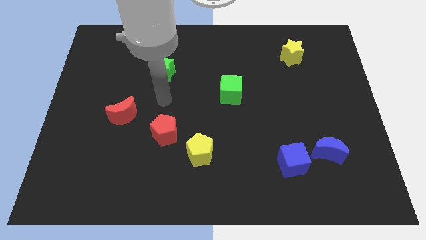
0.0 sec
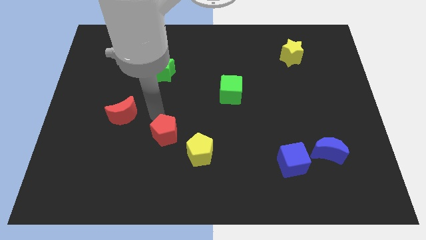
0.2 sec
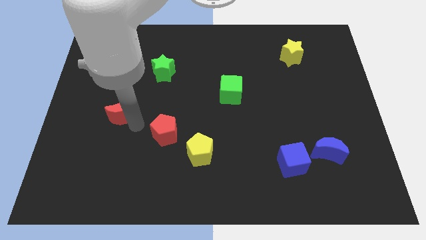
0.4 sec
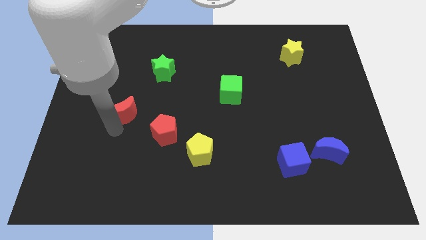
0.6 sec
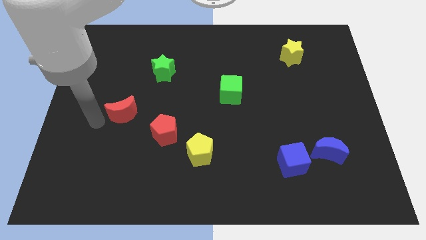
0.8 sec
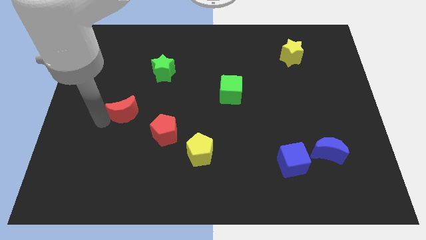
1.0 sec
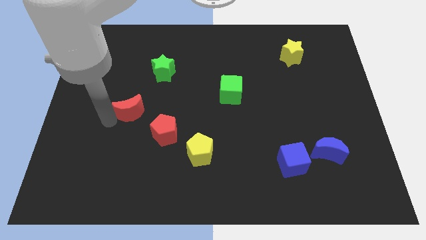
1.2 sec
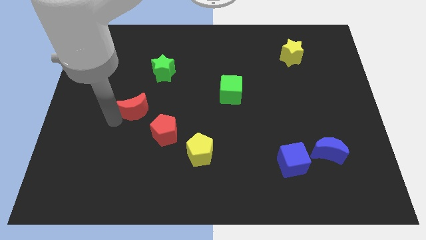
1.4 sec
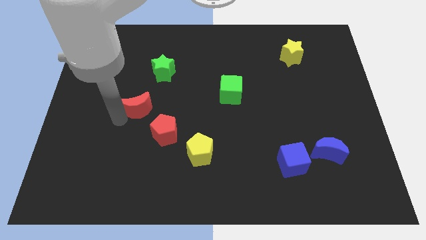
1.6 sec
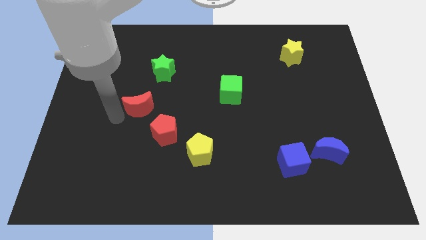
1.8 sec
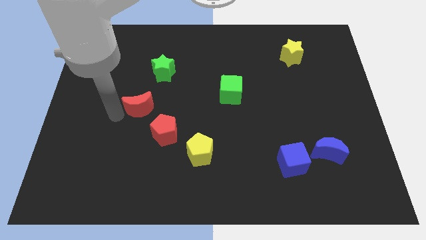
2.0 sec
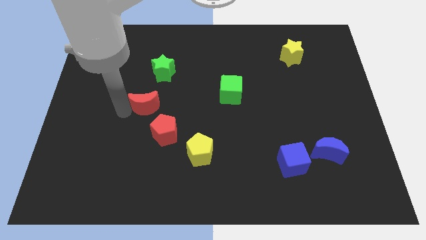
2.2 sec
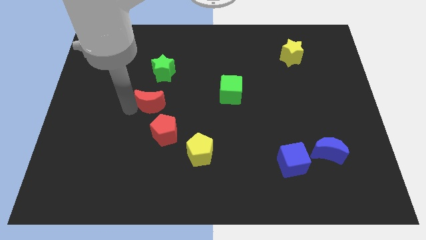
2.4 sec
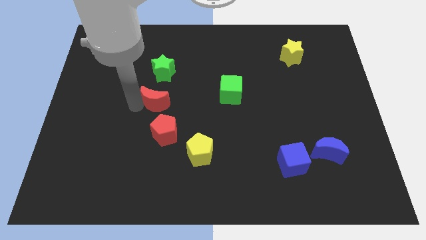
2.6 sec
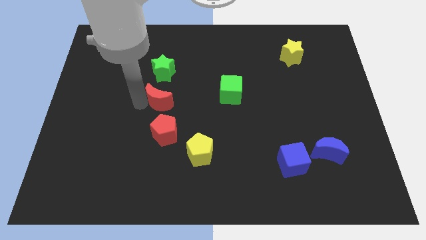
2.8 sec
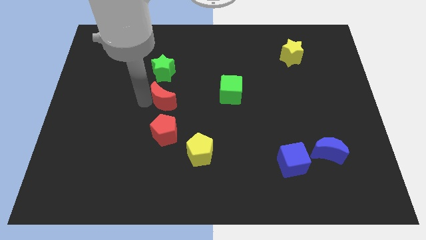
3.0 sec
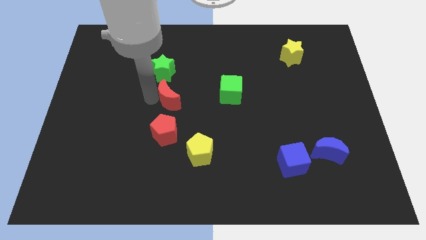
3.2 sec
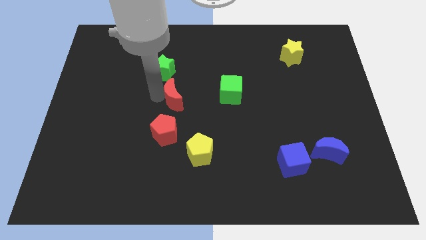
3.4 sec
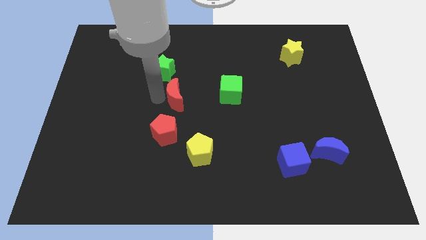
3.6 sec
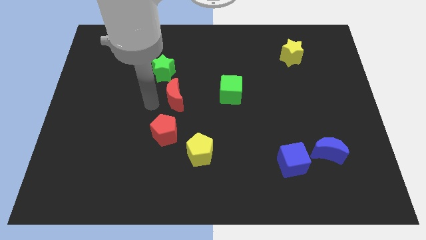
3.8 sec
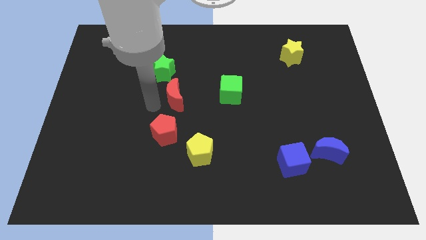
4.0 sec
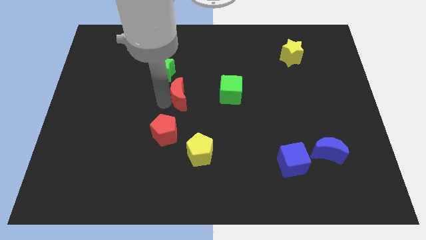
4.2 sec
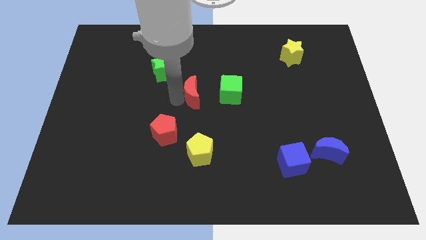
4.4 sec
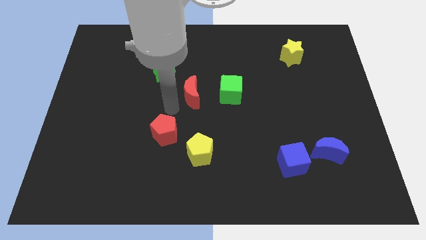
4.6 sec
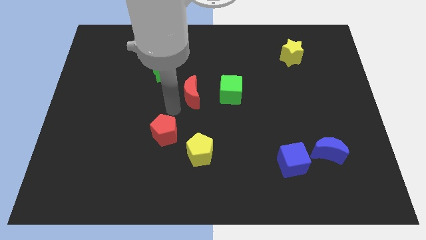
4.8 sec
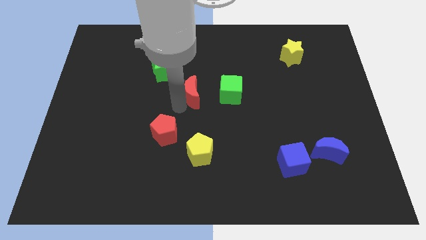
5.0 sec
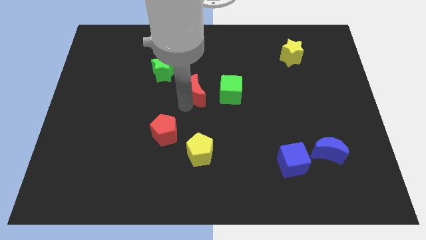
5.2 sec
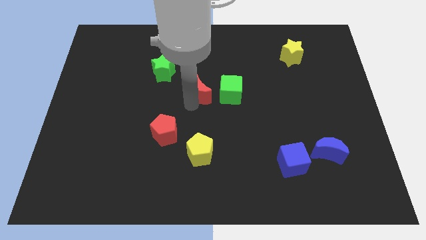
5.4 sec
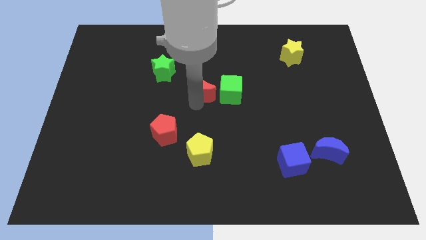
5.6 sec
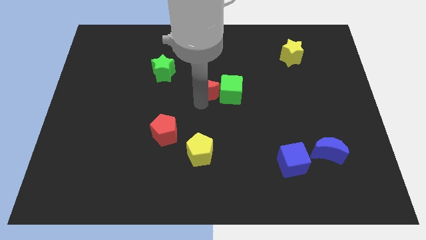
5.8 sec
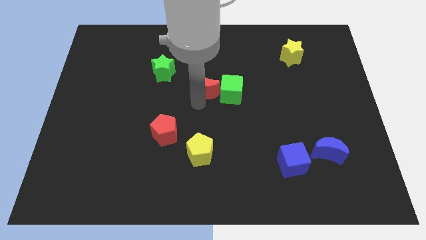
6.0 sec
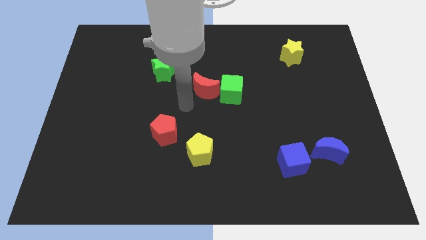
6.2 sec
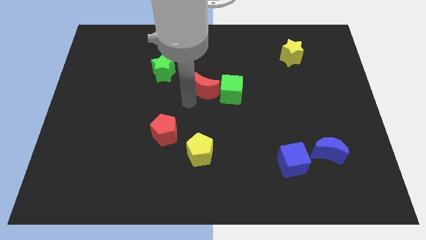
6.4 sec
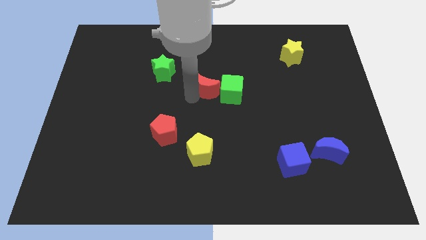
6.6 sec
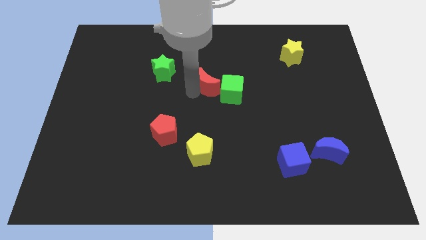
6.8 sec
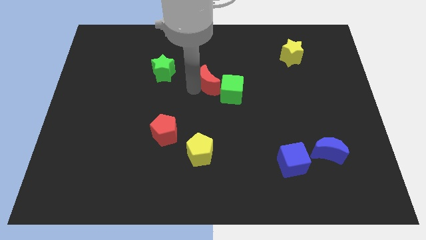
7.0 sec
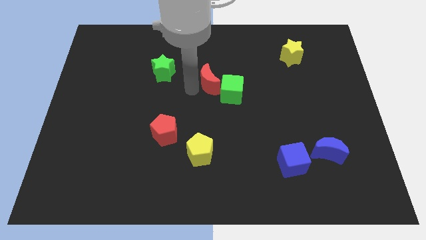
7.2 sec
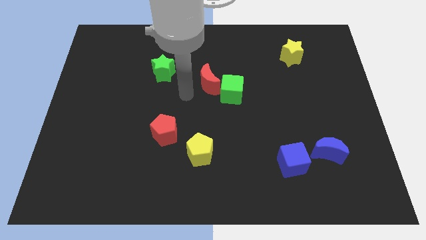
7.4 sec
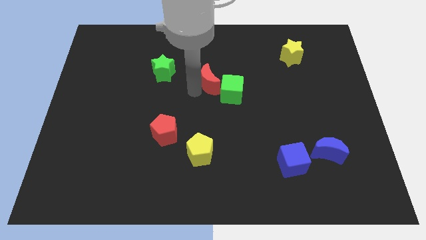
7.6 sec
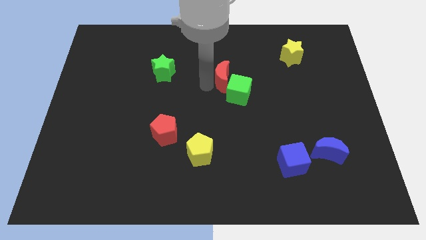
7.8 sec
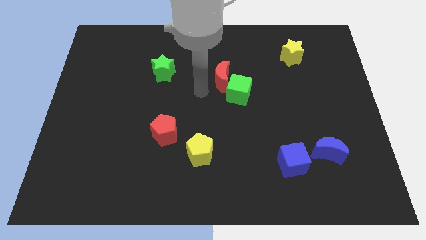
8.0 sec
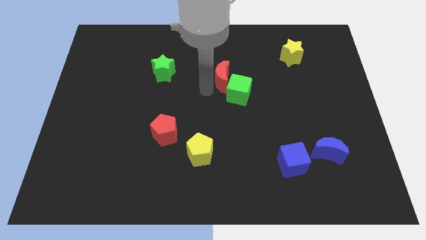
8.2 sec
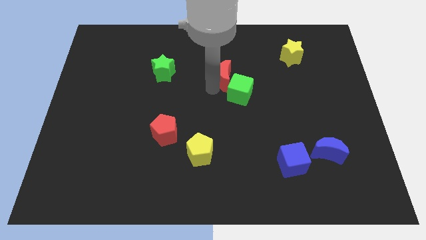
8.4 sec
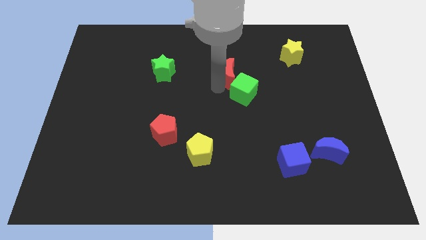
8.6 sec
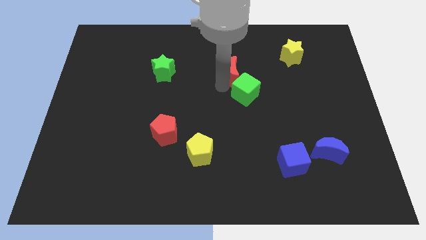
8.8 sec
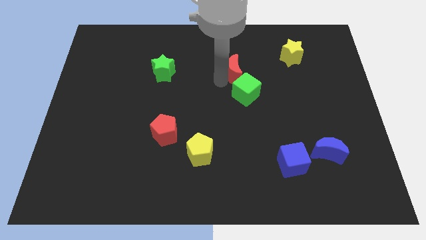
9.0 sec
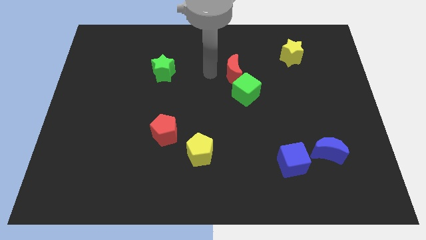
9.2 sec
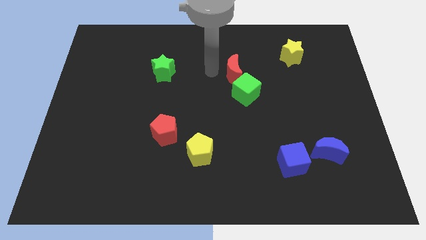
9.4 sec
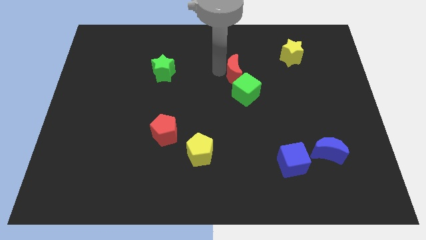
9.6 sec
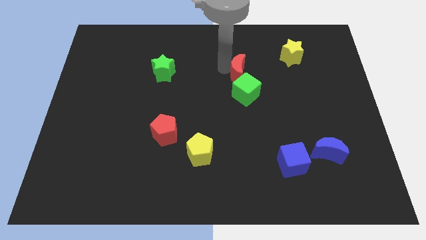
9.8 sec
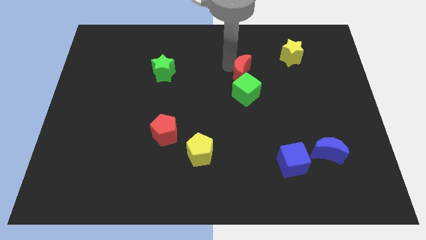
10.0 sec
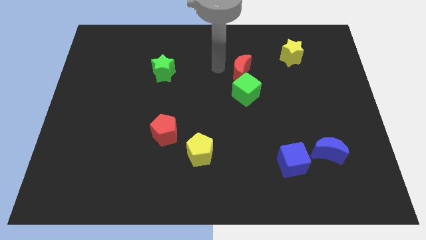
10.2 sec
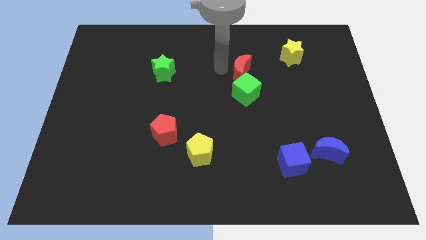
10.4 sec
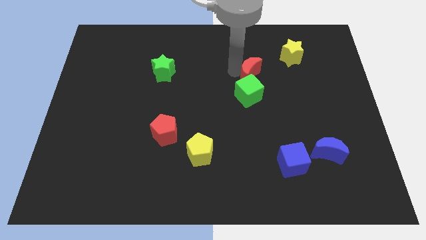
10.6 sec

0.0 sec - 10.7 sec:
put the red moon to the top right side of the green cube

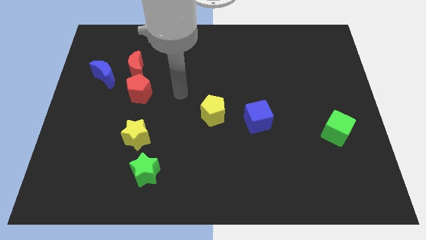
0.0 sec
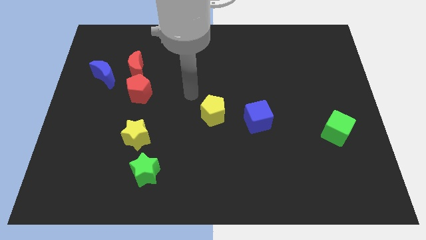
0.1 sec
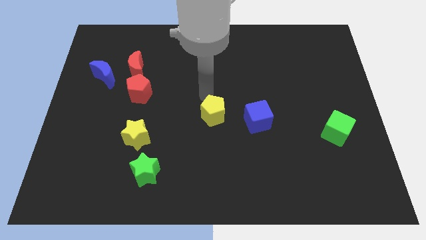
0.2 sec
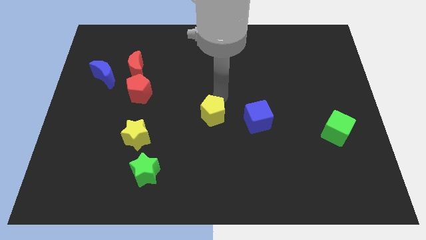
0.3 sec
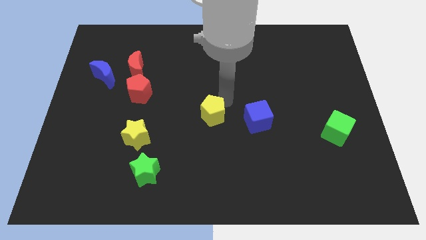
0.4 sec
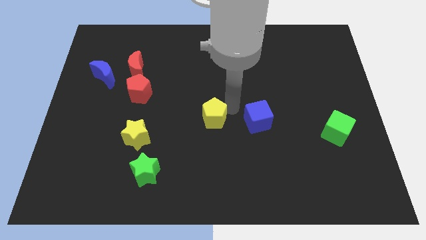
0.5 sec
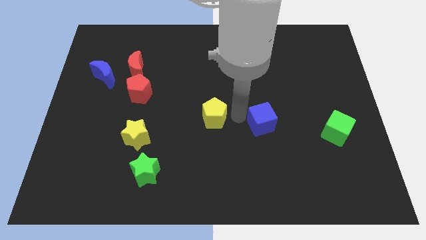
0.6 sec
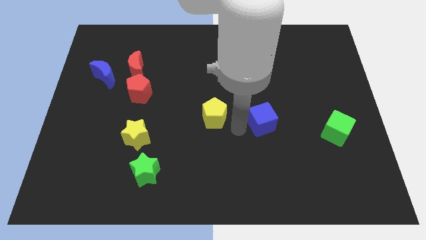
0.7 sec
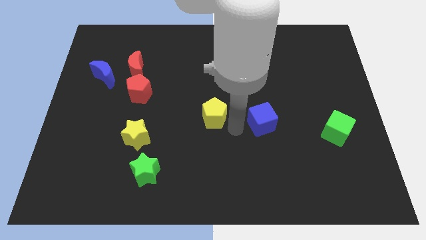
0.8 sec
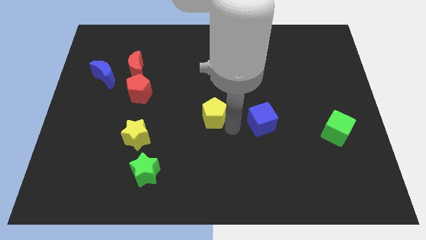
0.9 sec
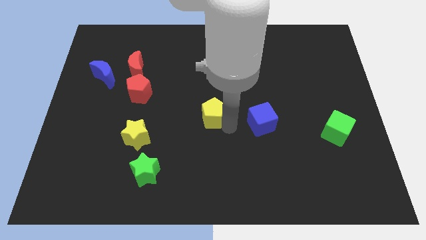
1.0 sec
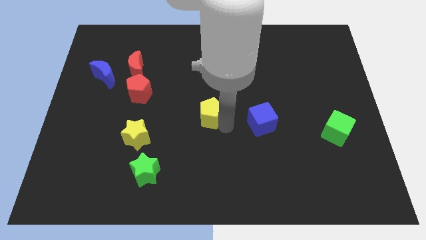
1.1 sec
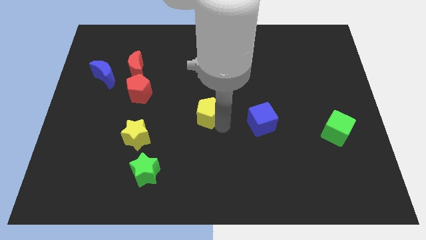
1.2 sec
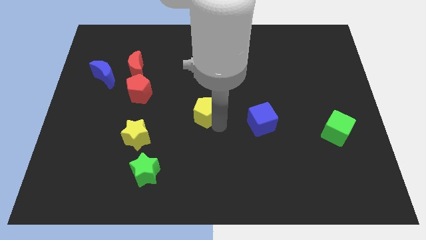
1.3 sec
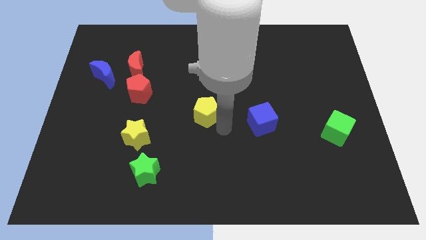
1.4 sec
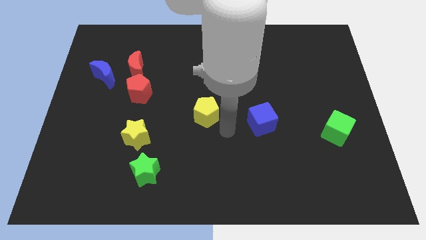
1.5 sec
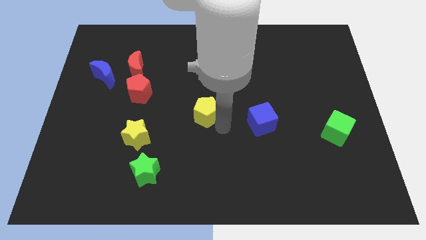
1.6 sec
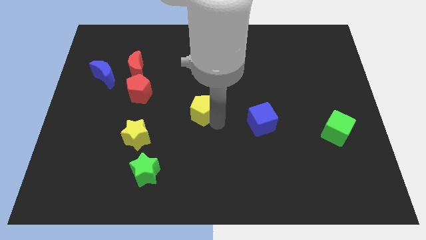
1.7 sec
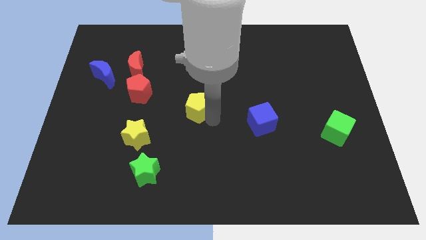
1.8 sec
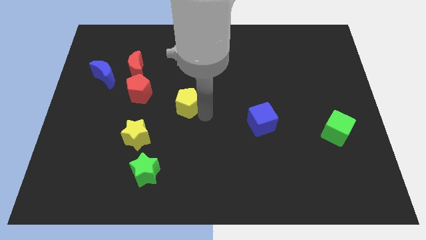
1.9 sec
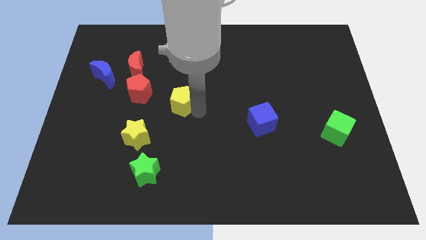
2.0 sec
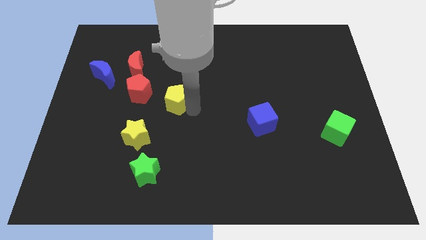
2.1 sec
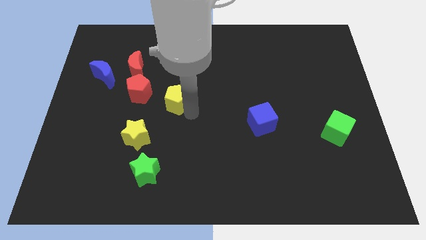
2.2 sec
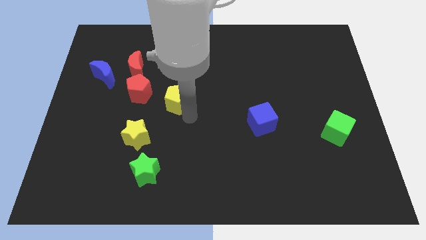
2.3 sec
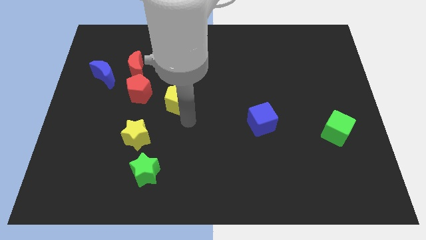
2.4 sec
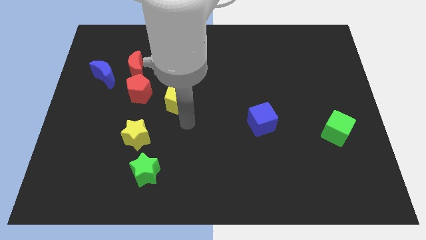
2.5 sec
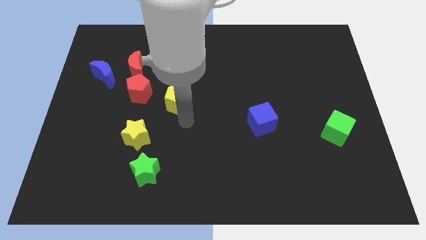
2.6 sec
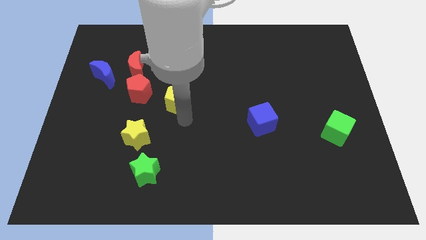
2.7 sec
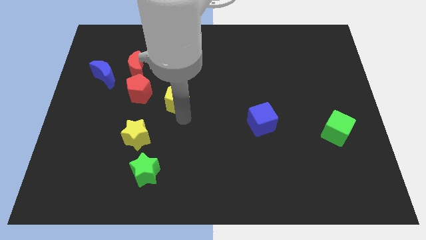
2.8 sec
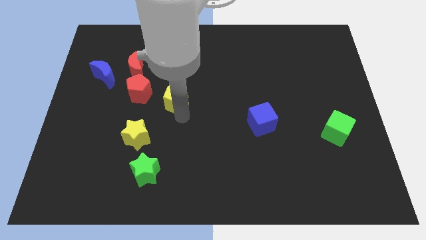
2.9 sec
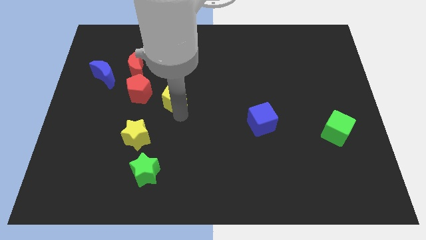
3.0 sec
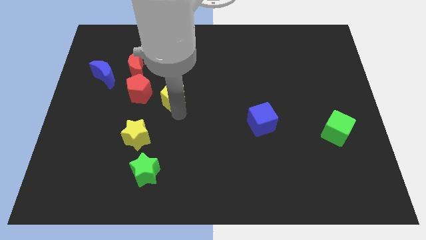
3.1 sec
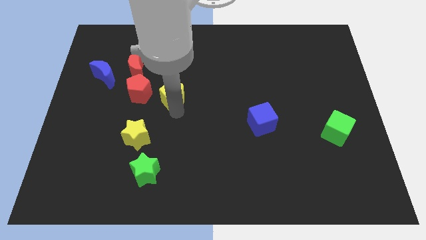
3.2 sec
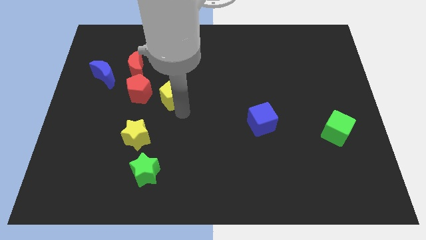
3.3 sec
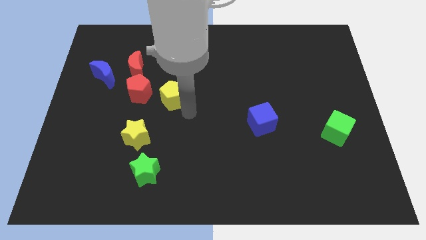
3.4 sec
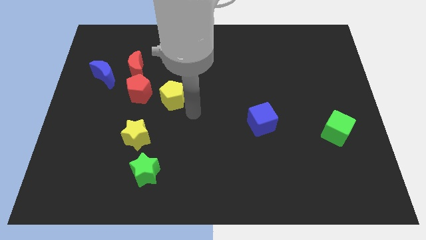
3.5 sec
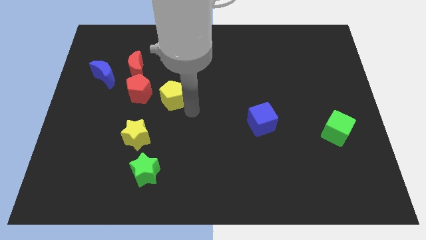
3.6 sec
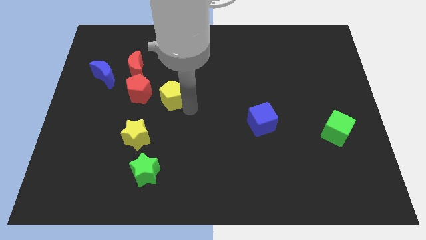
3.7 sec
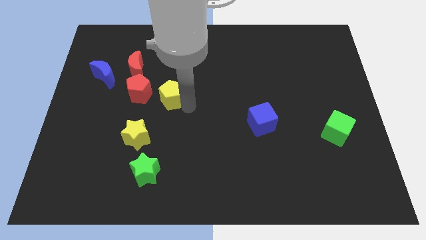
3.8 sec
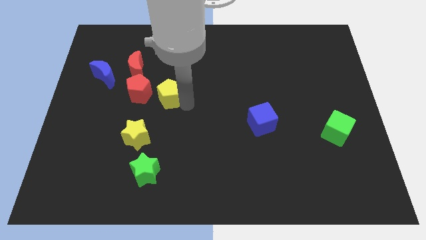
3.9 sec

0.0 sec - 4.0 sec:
slide the yellow pentagon to the bottom right of the red moon
